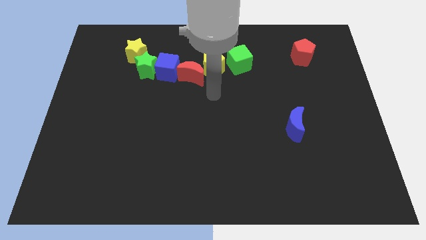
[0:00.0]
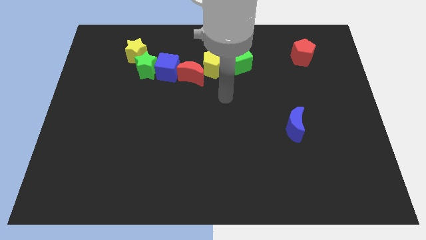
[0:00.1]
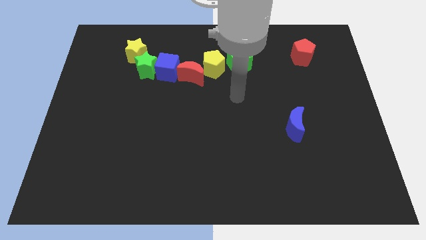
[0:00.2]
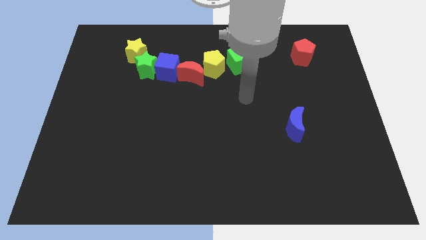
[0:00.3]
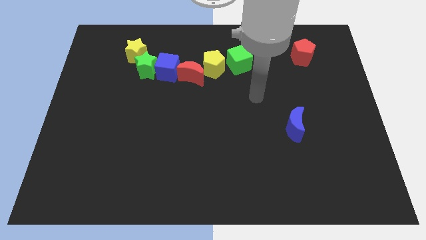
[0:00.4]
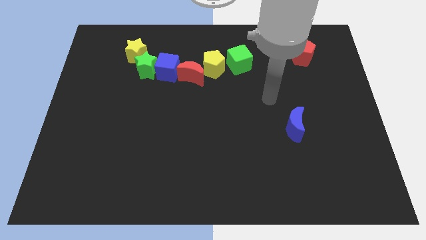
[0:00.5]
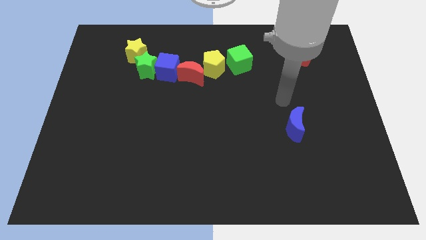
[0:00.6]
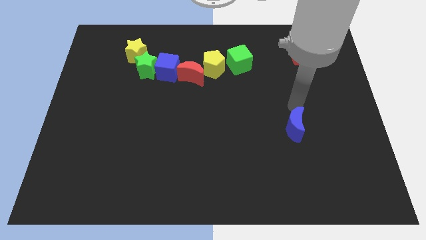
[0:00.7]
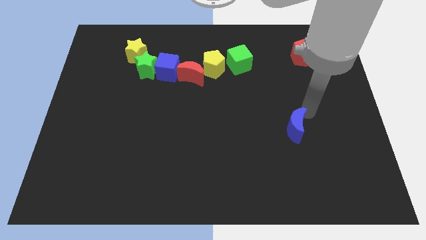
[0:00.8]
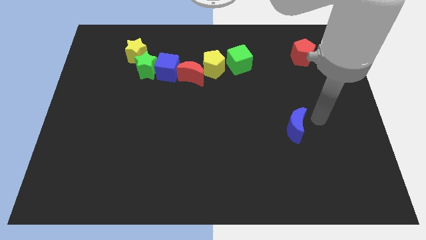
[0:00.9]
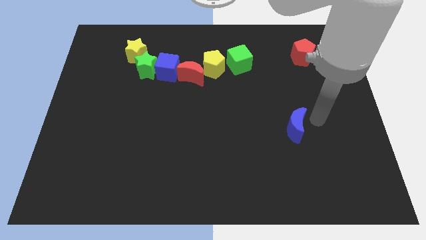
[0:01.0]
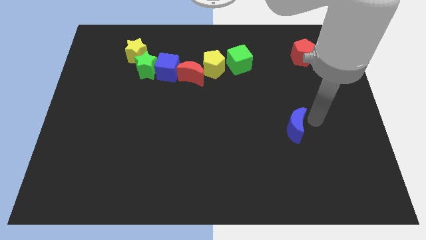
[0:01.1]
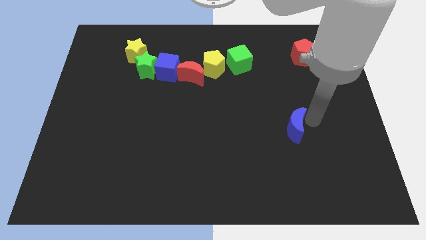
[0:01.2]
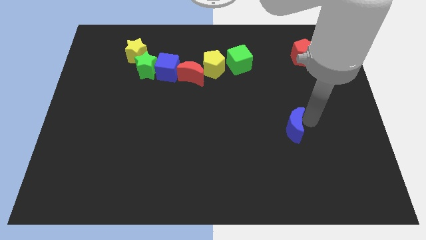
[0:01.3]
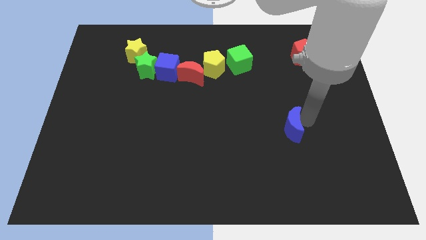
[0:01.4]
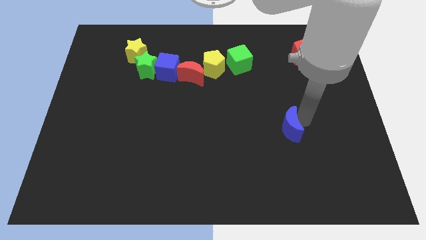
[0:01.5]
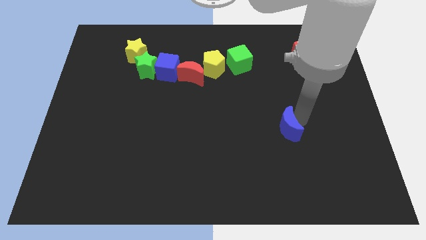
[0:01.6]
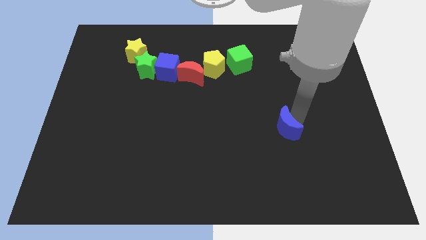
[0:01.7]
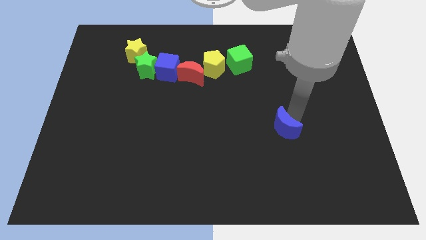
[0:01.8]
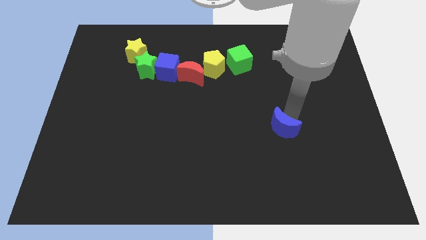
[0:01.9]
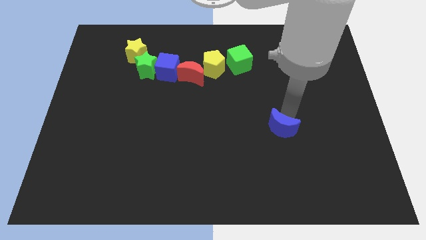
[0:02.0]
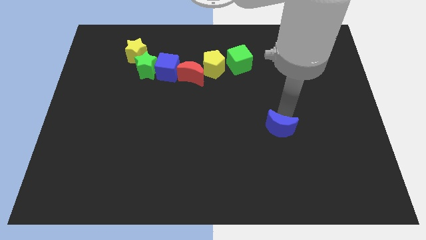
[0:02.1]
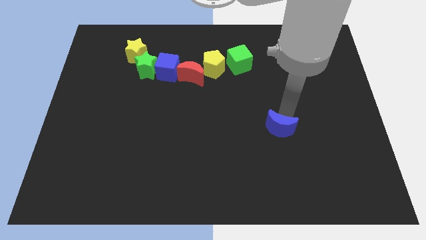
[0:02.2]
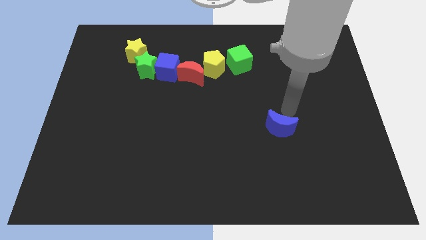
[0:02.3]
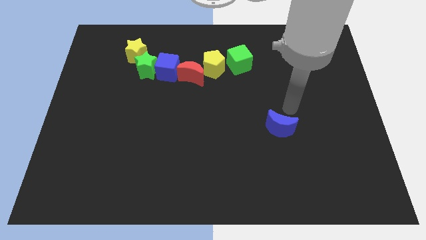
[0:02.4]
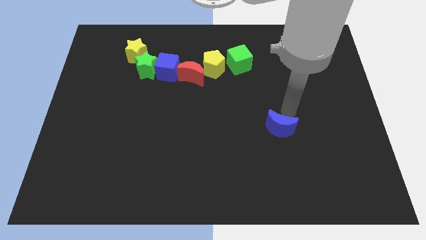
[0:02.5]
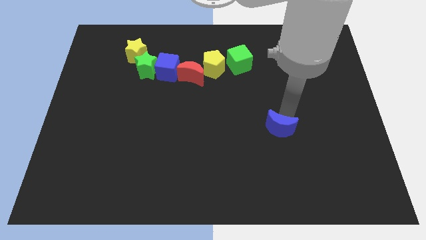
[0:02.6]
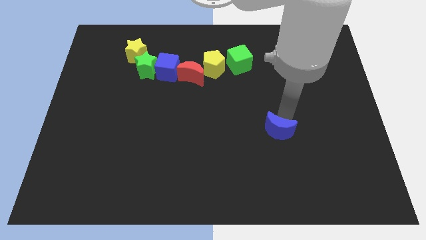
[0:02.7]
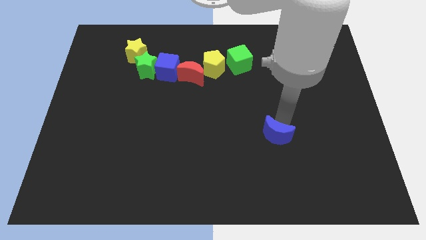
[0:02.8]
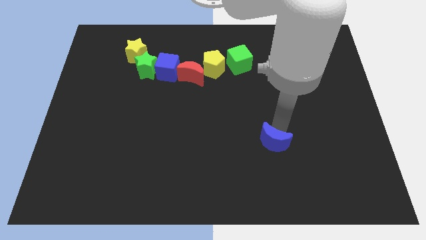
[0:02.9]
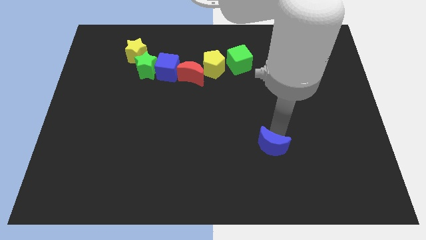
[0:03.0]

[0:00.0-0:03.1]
move the blue moon a bit diagonally downwards and left

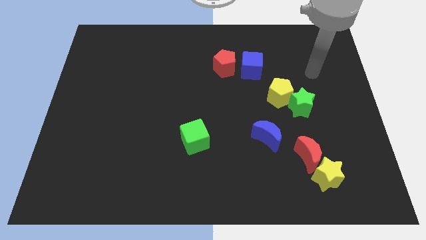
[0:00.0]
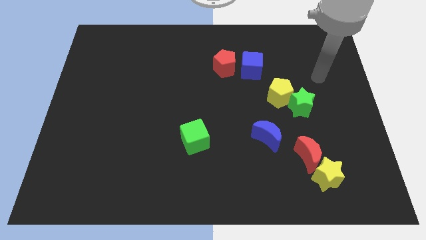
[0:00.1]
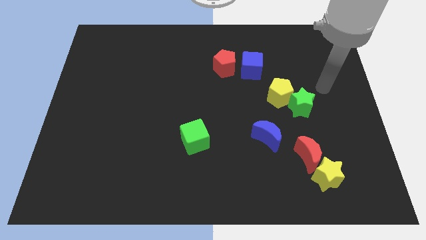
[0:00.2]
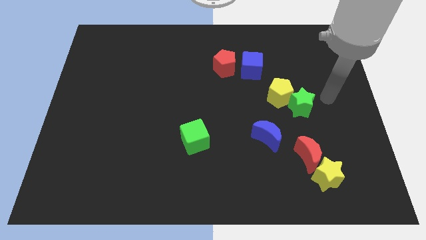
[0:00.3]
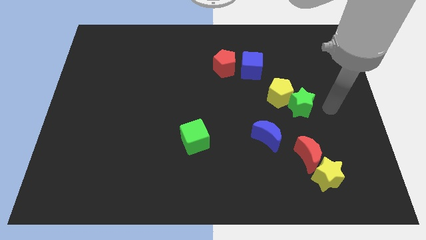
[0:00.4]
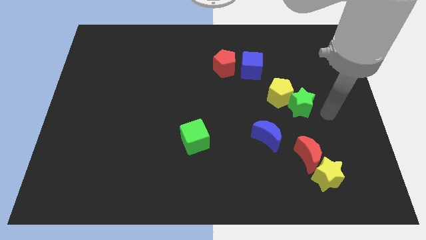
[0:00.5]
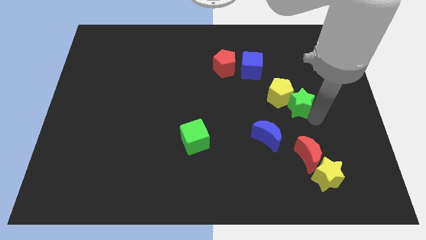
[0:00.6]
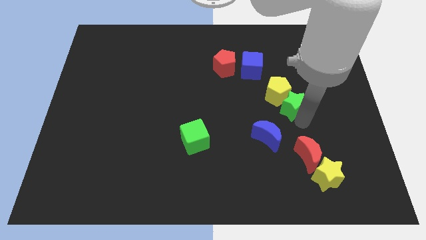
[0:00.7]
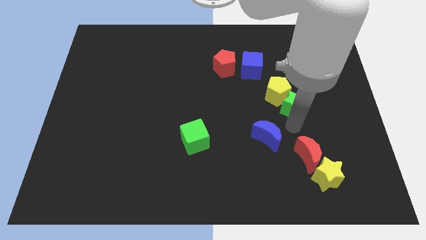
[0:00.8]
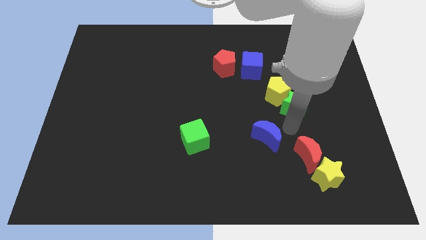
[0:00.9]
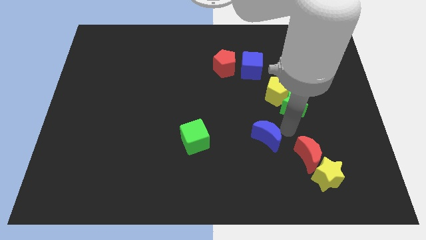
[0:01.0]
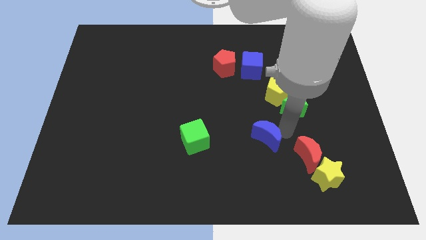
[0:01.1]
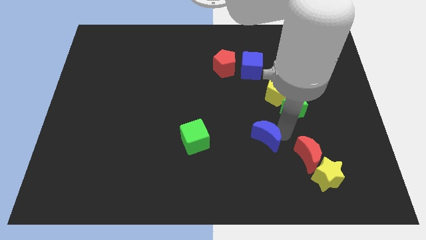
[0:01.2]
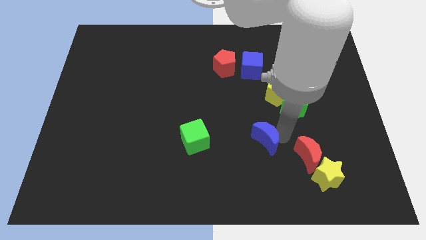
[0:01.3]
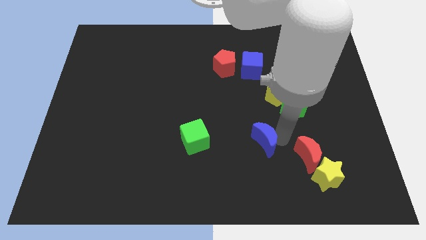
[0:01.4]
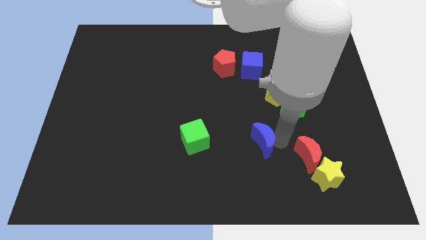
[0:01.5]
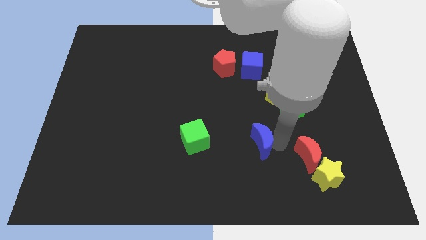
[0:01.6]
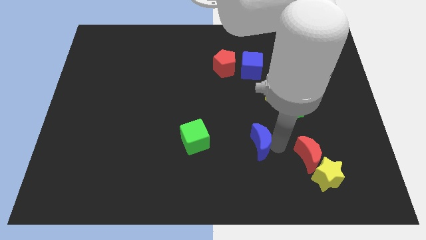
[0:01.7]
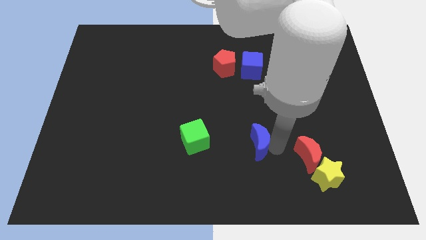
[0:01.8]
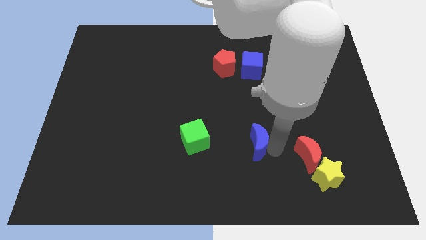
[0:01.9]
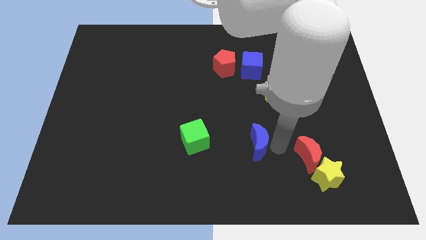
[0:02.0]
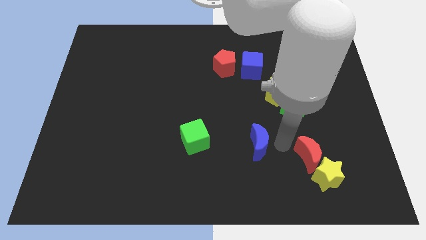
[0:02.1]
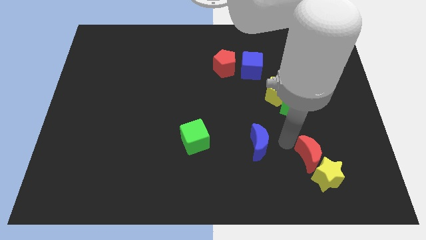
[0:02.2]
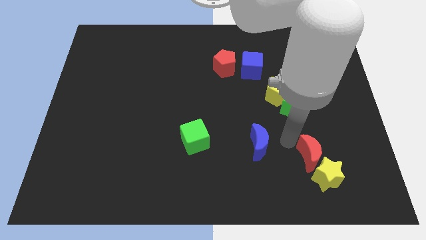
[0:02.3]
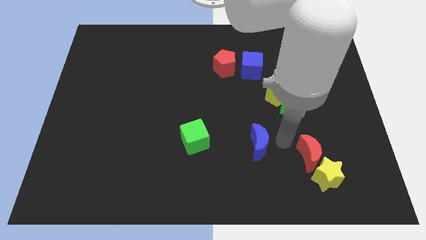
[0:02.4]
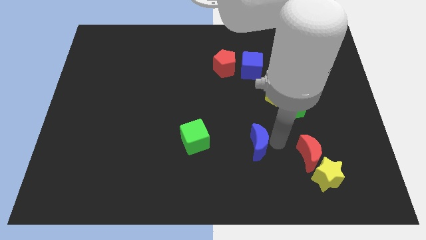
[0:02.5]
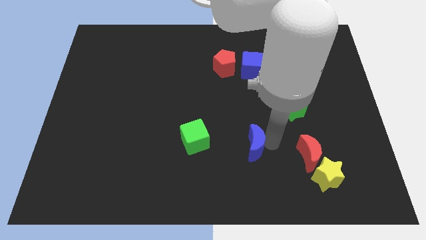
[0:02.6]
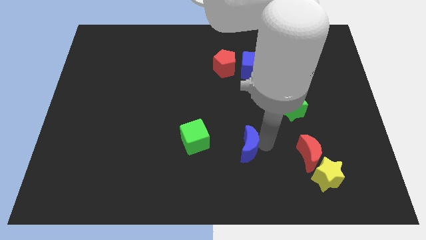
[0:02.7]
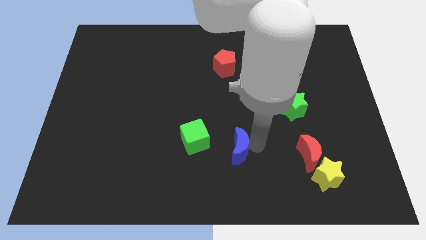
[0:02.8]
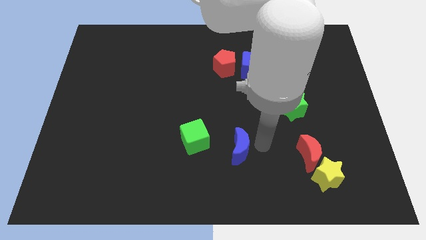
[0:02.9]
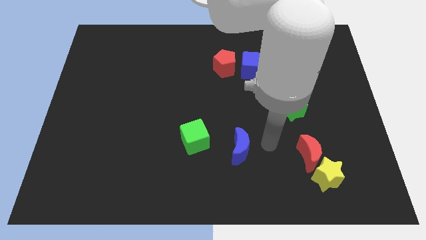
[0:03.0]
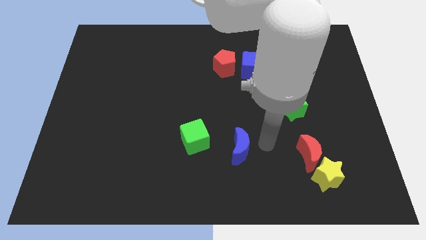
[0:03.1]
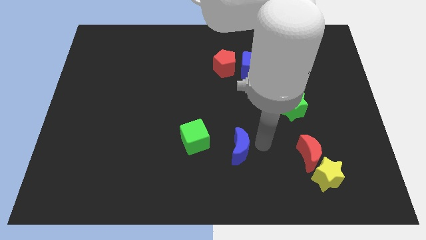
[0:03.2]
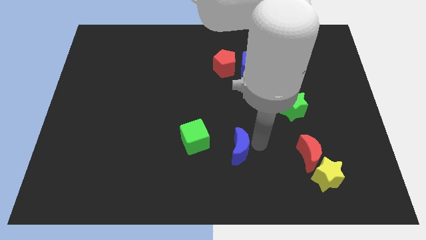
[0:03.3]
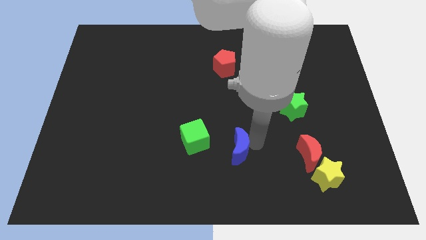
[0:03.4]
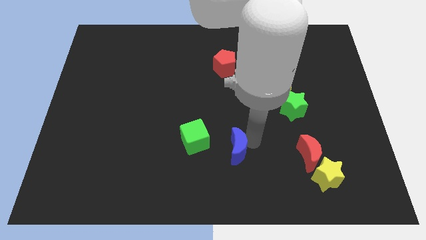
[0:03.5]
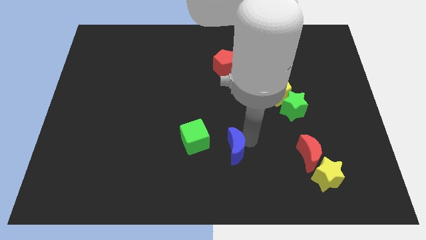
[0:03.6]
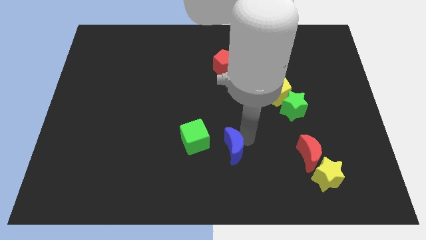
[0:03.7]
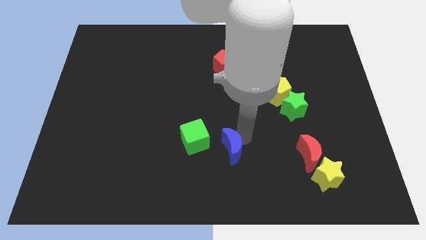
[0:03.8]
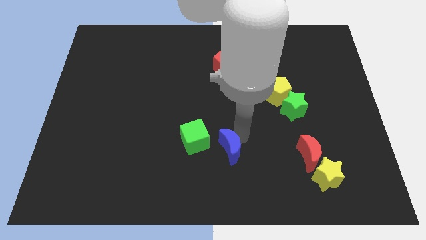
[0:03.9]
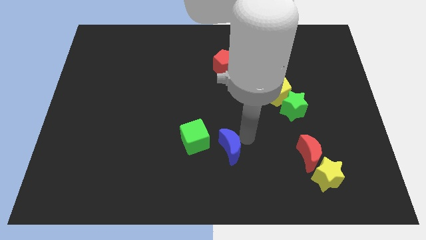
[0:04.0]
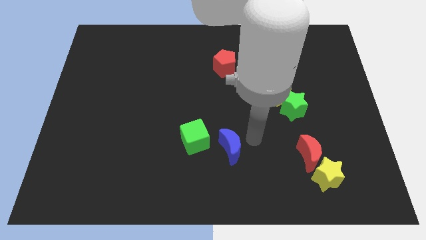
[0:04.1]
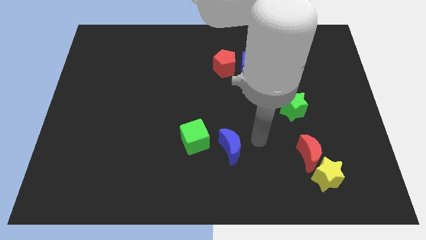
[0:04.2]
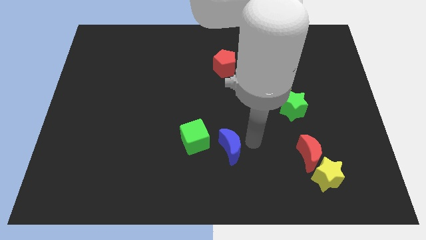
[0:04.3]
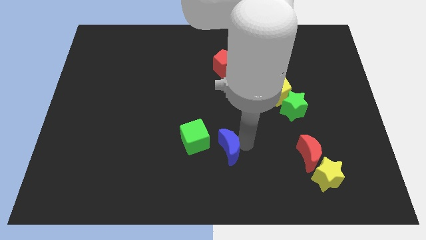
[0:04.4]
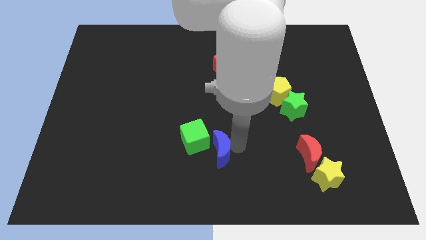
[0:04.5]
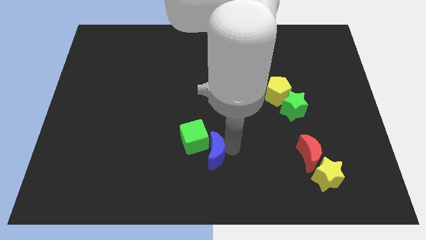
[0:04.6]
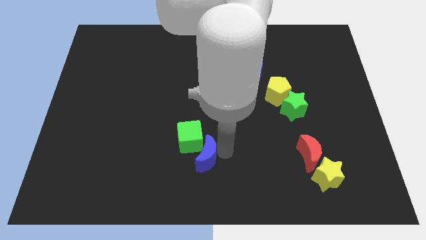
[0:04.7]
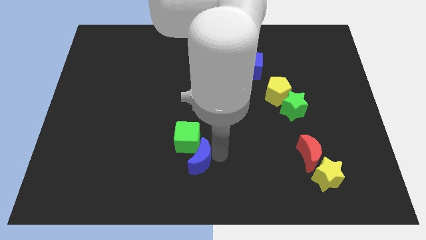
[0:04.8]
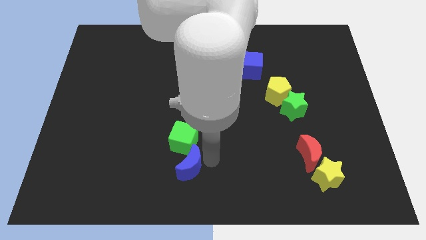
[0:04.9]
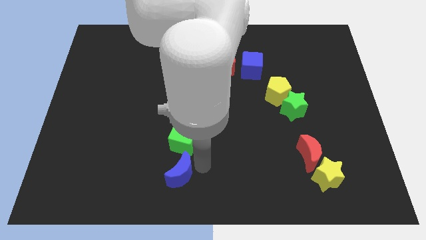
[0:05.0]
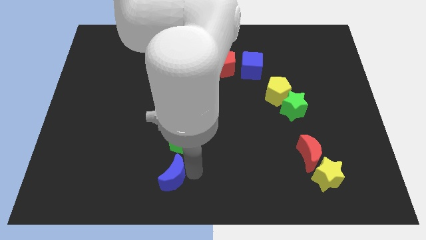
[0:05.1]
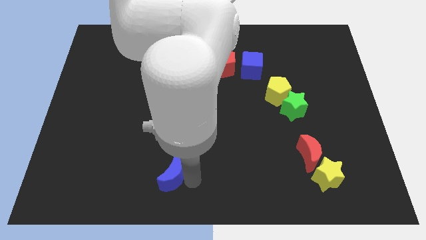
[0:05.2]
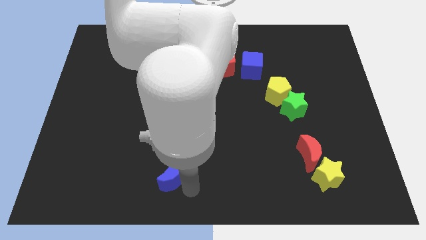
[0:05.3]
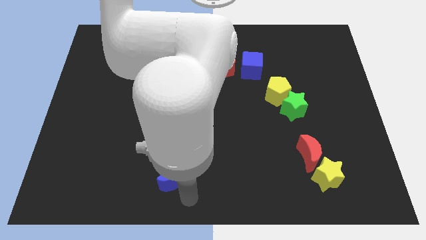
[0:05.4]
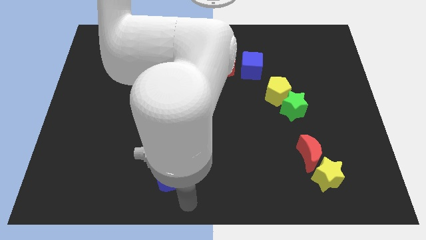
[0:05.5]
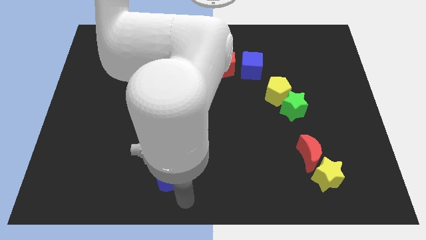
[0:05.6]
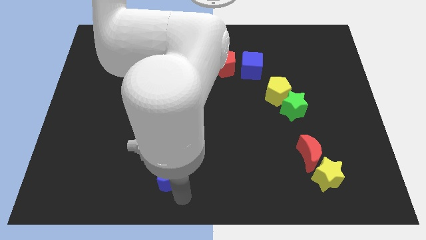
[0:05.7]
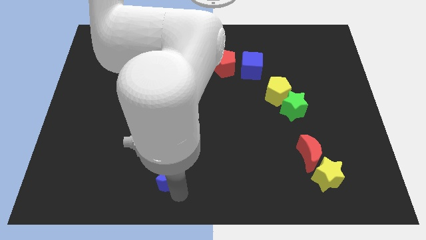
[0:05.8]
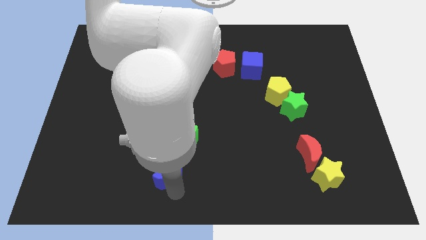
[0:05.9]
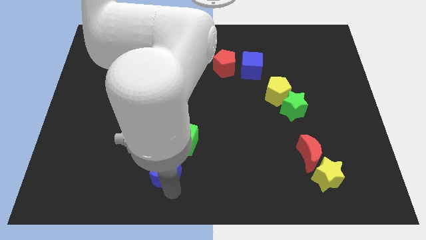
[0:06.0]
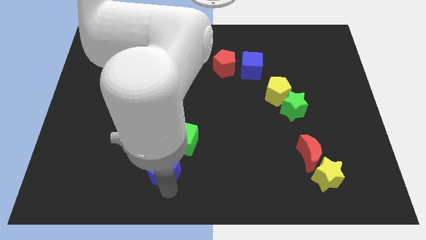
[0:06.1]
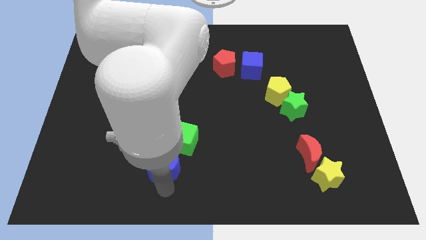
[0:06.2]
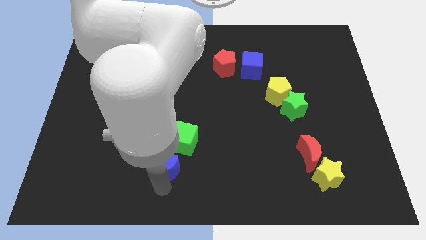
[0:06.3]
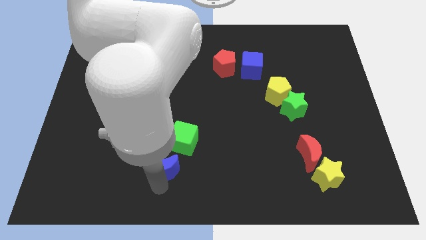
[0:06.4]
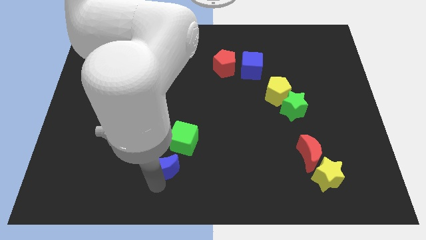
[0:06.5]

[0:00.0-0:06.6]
slide the blue moon to the left
